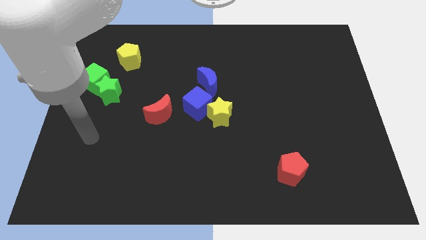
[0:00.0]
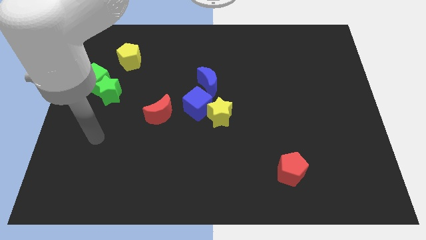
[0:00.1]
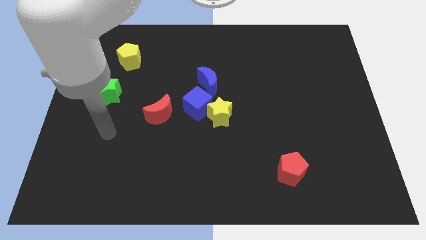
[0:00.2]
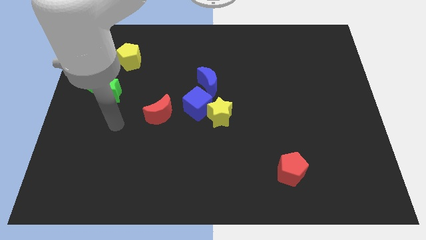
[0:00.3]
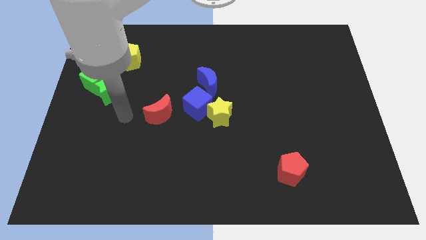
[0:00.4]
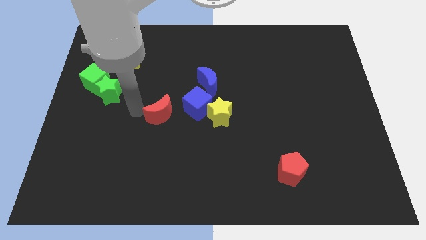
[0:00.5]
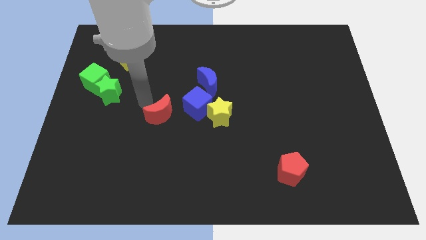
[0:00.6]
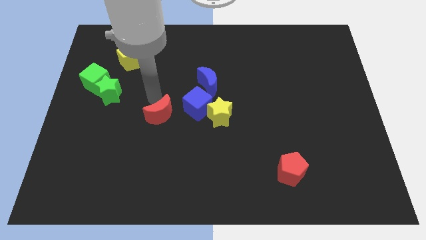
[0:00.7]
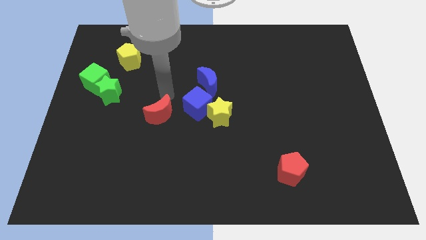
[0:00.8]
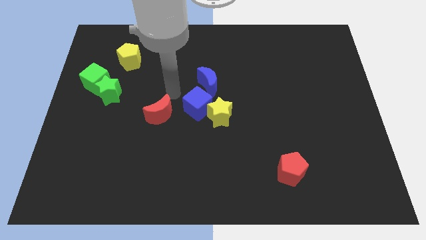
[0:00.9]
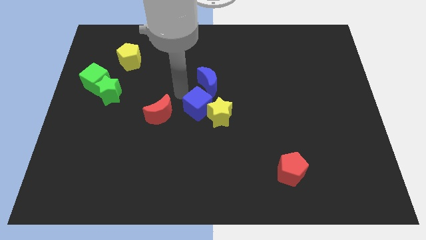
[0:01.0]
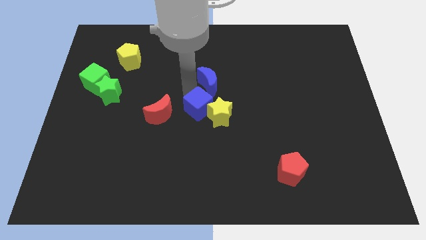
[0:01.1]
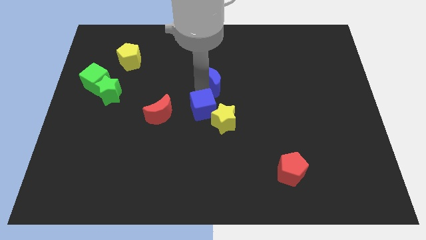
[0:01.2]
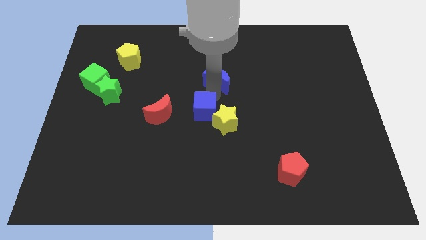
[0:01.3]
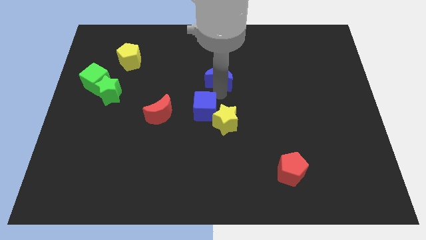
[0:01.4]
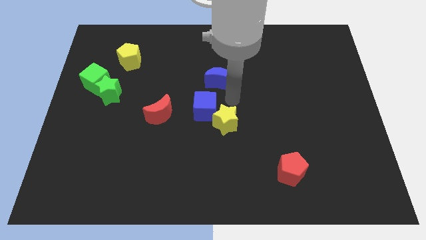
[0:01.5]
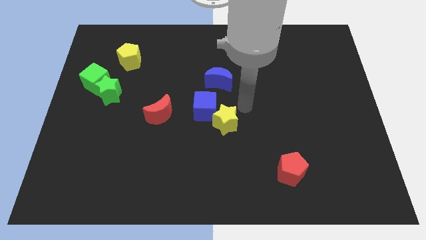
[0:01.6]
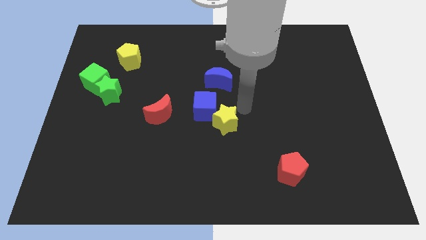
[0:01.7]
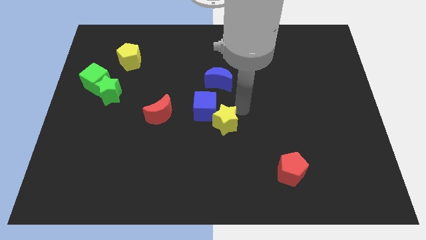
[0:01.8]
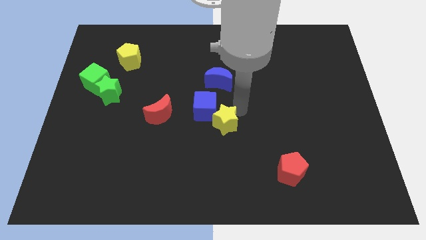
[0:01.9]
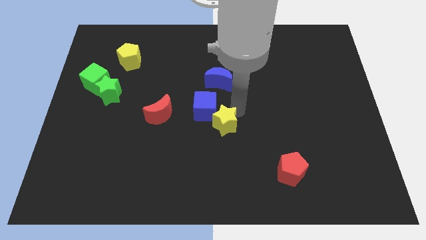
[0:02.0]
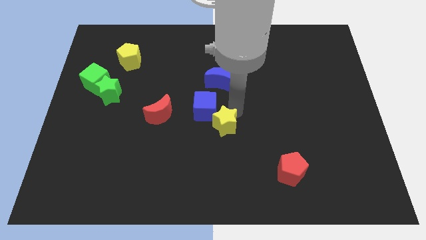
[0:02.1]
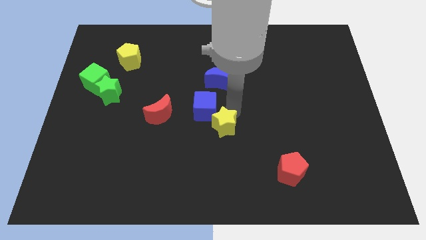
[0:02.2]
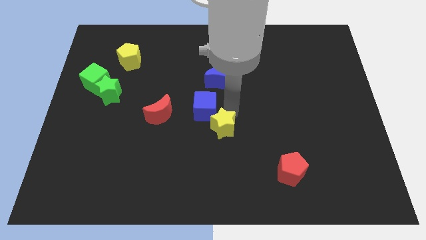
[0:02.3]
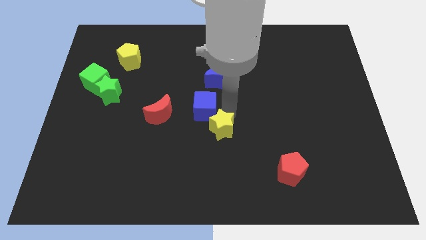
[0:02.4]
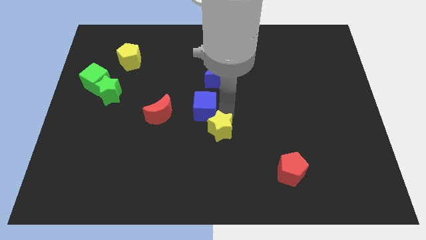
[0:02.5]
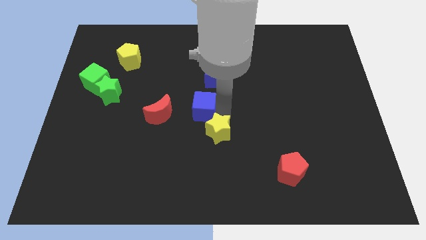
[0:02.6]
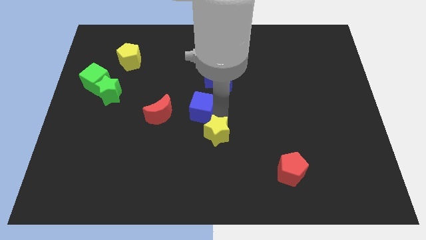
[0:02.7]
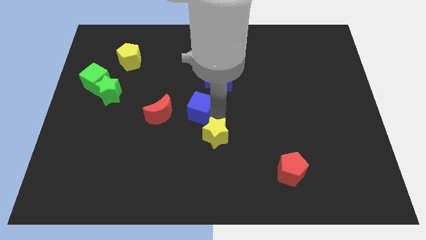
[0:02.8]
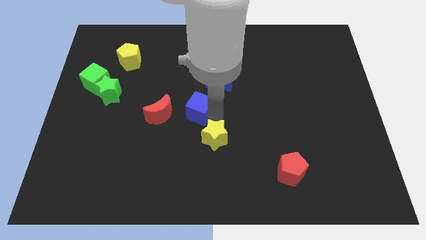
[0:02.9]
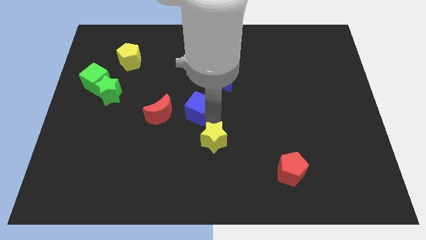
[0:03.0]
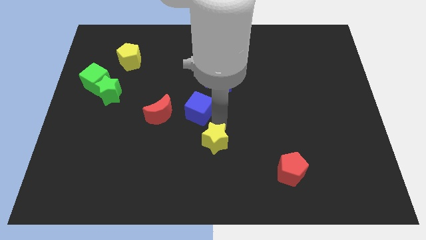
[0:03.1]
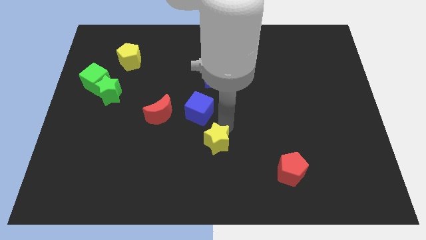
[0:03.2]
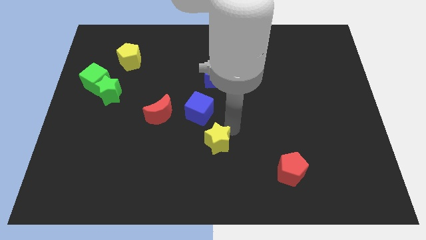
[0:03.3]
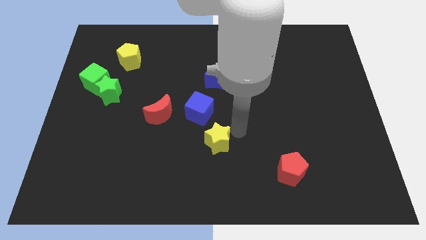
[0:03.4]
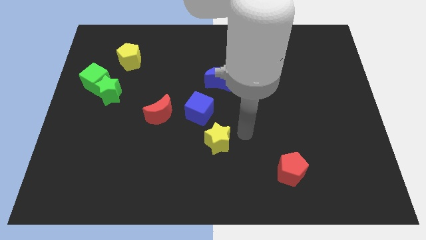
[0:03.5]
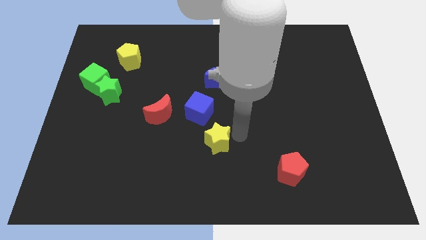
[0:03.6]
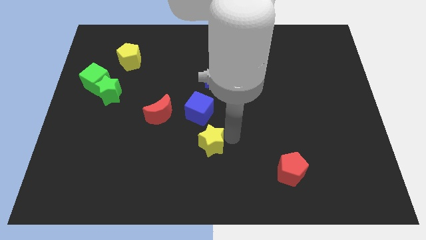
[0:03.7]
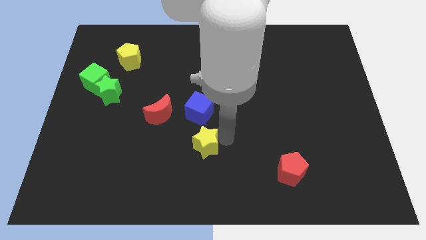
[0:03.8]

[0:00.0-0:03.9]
slide the yellow star somewhat diagonally downwards and to the left

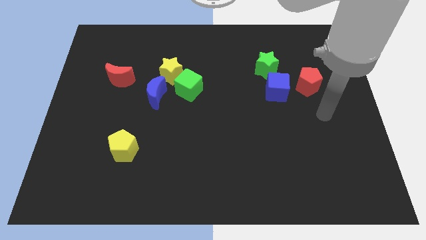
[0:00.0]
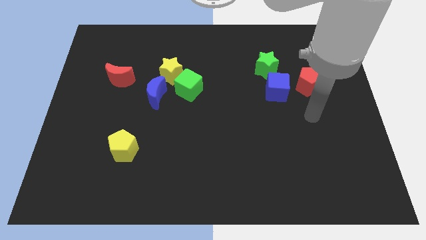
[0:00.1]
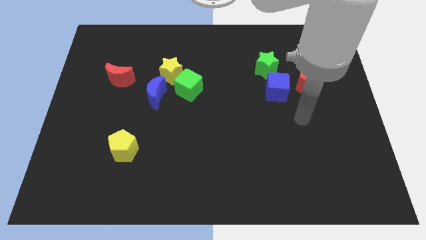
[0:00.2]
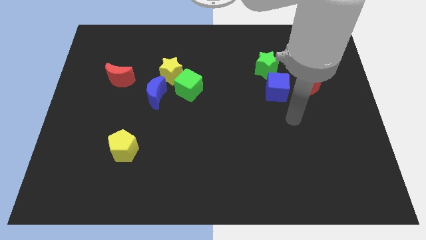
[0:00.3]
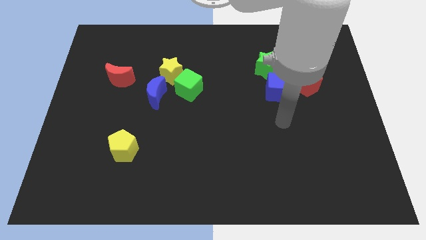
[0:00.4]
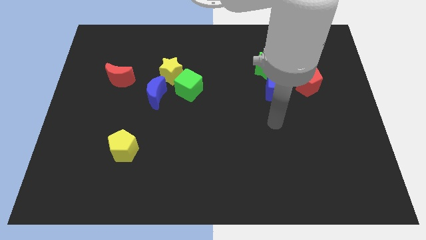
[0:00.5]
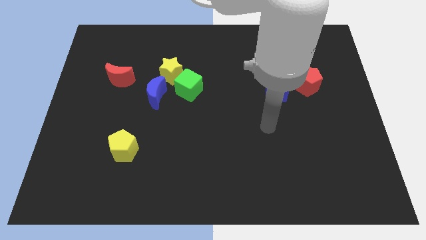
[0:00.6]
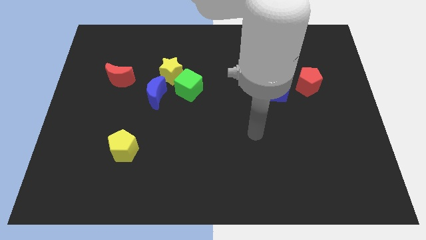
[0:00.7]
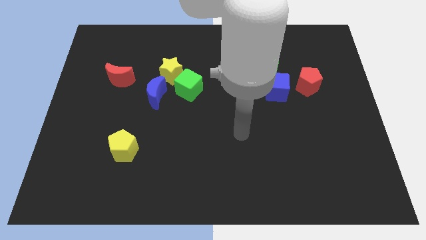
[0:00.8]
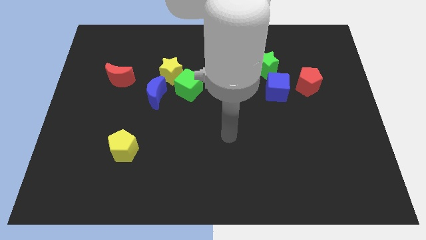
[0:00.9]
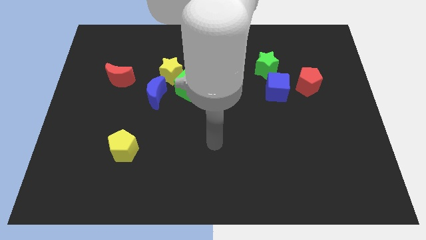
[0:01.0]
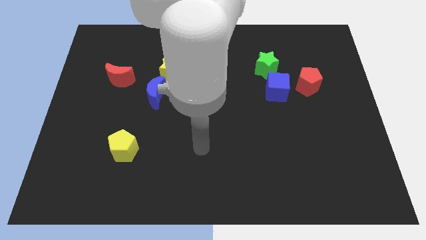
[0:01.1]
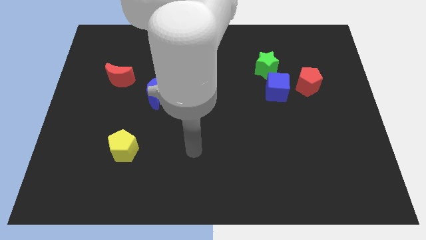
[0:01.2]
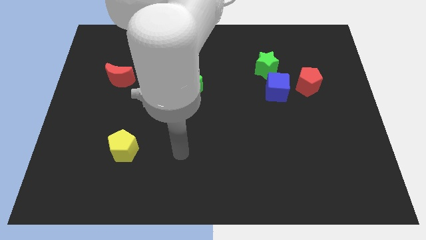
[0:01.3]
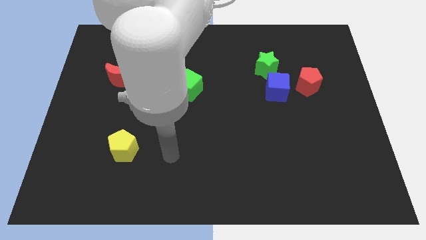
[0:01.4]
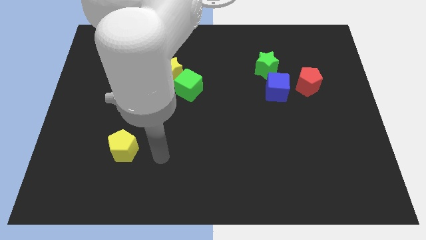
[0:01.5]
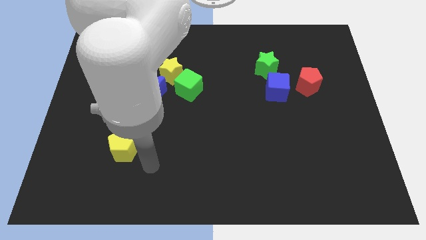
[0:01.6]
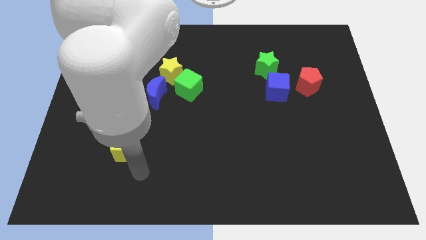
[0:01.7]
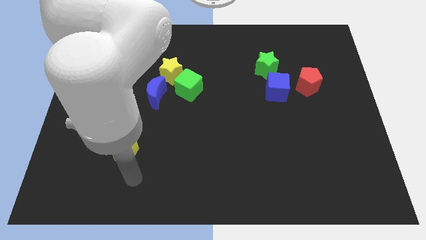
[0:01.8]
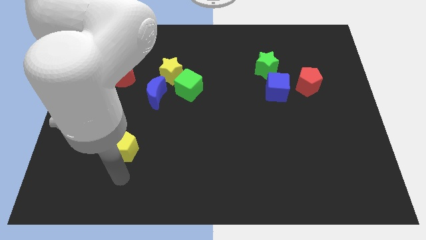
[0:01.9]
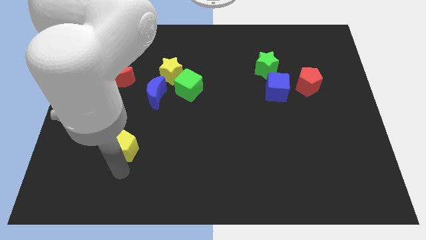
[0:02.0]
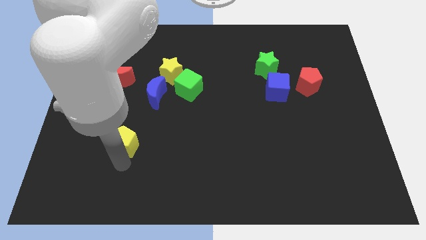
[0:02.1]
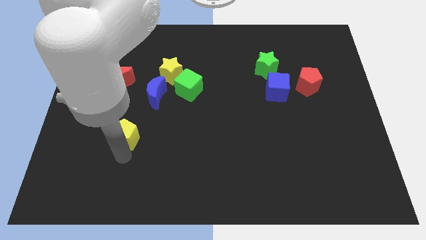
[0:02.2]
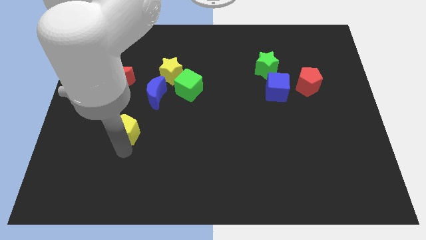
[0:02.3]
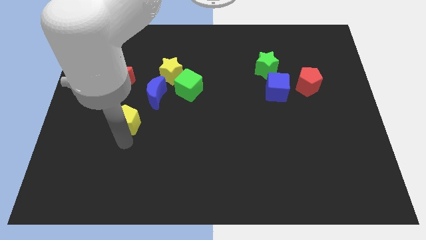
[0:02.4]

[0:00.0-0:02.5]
move the yellow pentagon up slightly

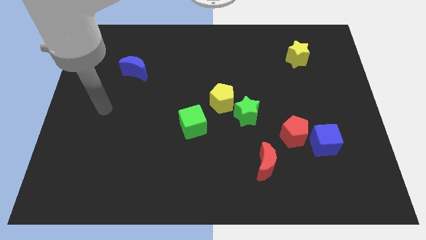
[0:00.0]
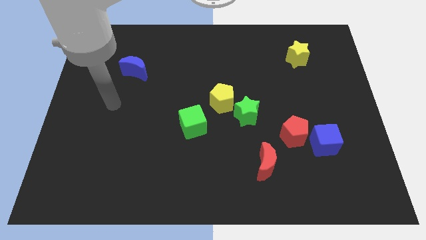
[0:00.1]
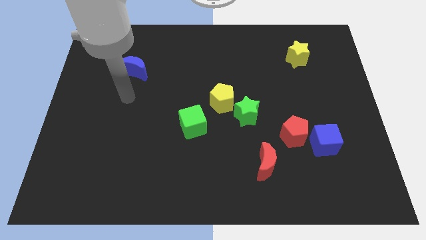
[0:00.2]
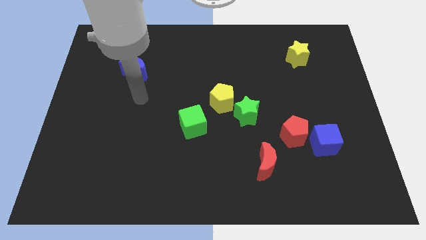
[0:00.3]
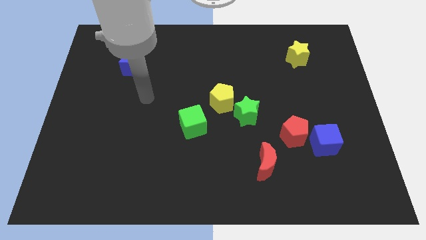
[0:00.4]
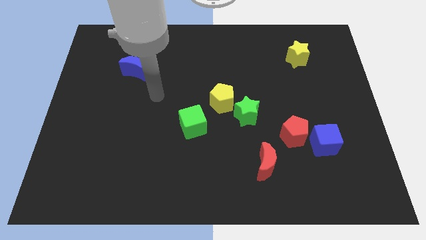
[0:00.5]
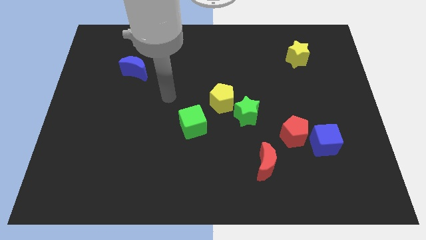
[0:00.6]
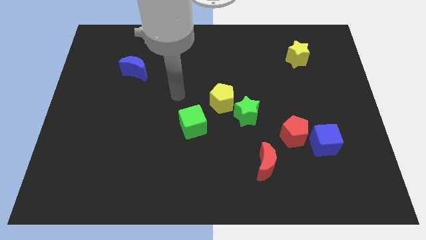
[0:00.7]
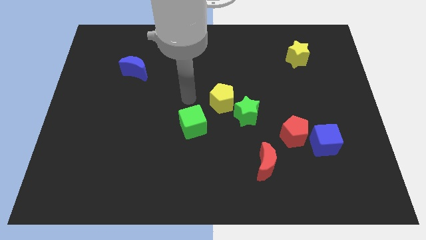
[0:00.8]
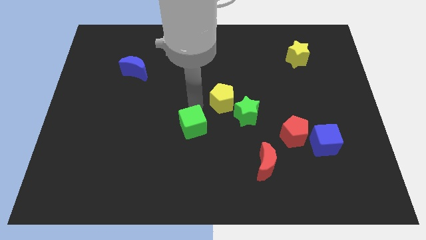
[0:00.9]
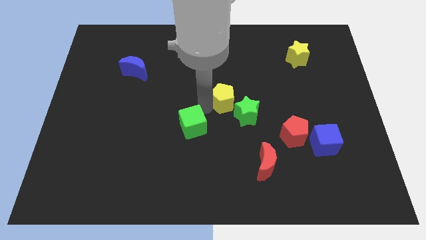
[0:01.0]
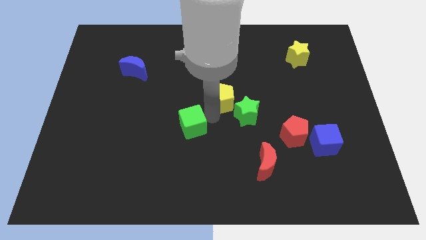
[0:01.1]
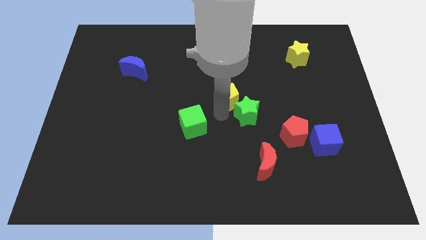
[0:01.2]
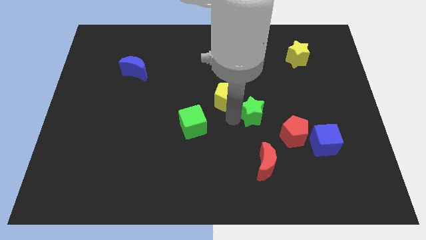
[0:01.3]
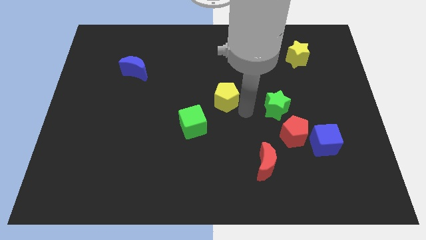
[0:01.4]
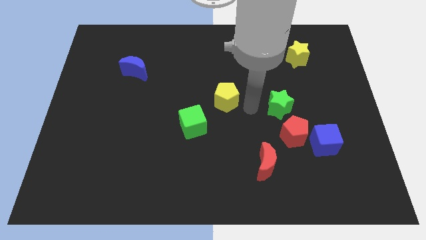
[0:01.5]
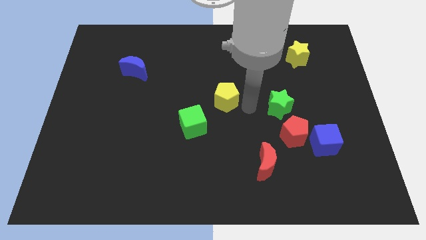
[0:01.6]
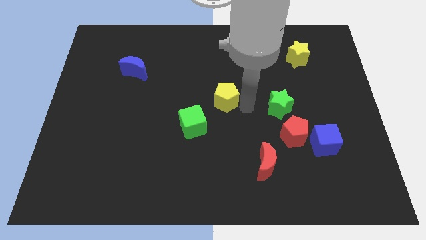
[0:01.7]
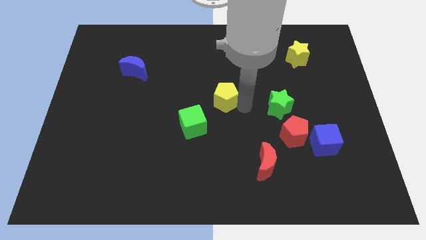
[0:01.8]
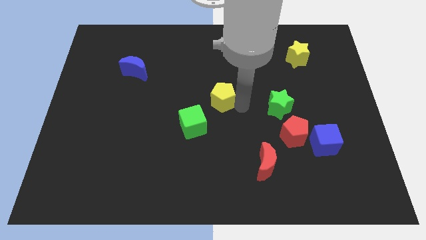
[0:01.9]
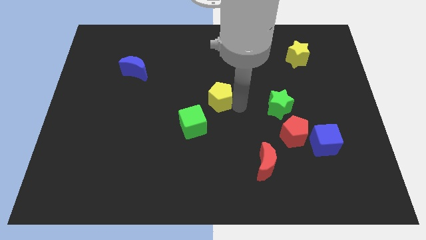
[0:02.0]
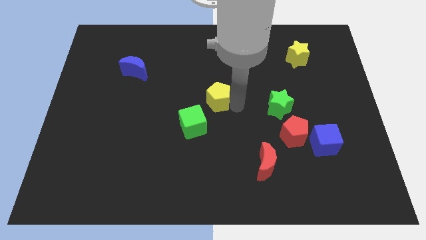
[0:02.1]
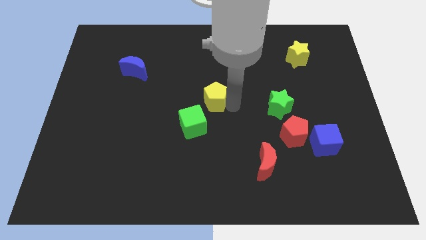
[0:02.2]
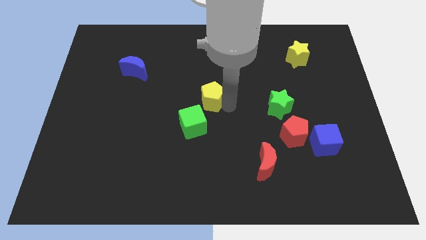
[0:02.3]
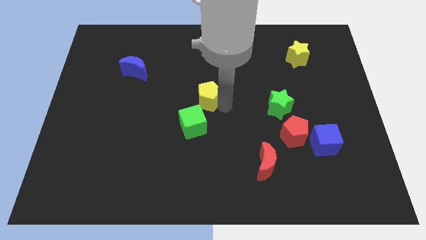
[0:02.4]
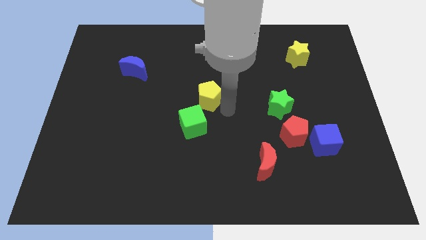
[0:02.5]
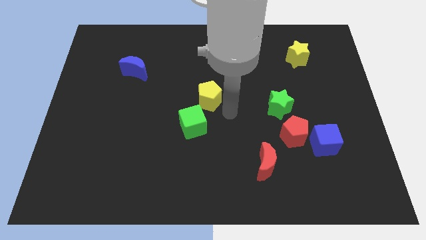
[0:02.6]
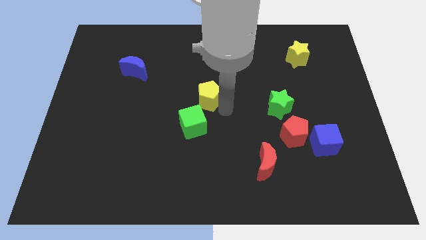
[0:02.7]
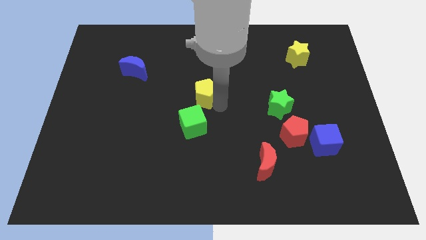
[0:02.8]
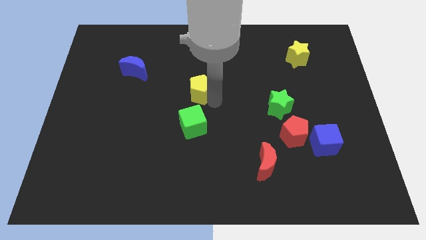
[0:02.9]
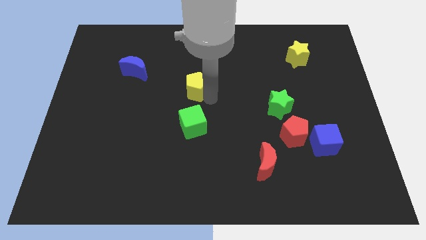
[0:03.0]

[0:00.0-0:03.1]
slide the yellow pentagon upwards and left diagonally somewhat
